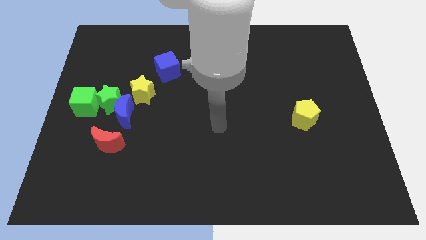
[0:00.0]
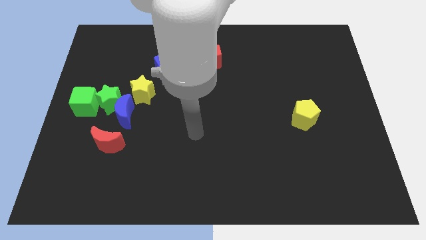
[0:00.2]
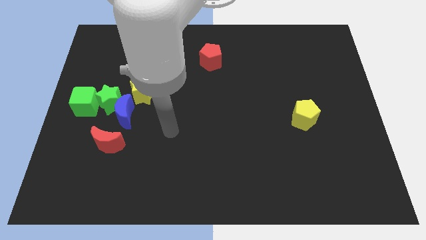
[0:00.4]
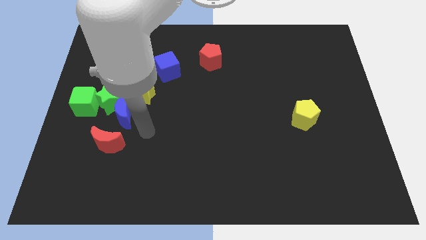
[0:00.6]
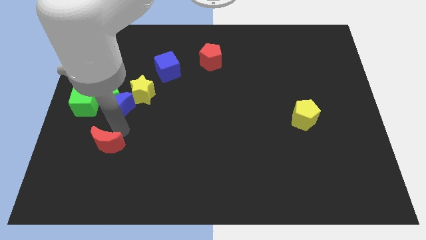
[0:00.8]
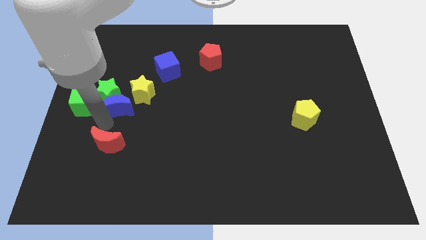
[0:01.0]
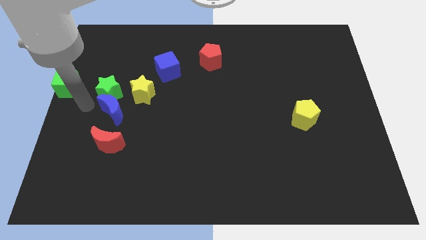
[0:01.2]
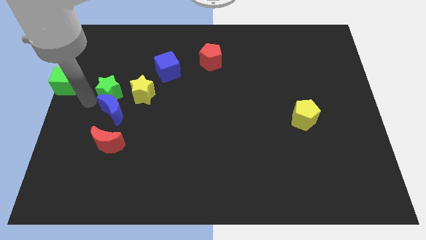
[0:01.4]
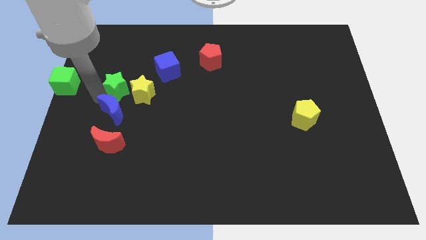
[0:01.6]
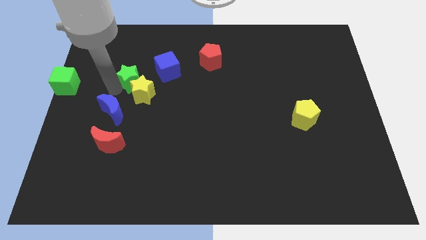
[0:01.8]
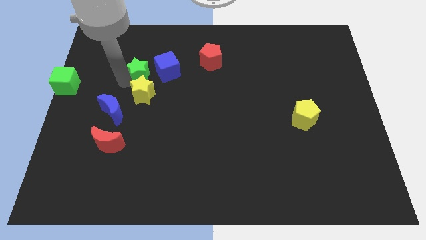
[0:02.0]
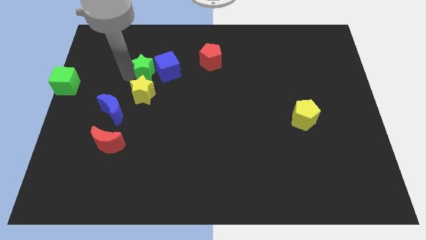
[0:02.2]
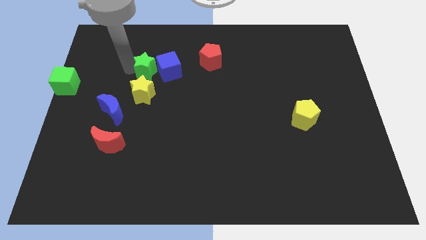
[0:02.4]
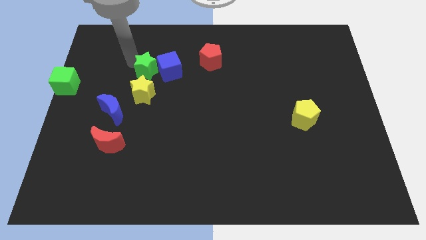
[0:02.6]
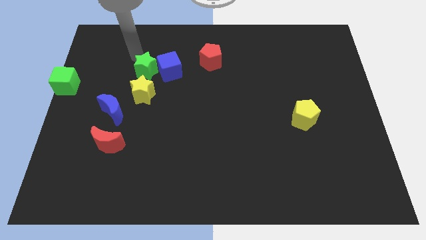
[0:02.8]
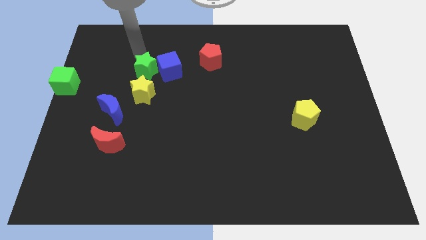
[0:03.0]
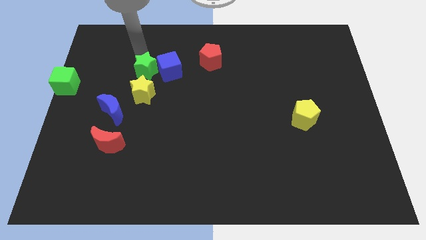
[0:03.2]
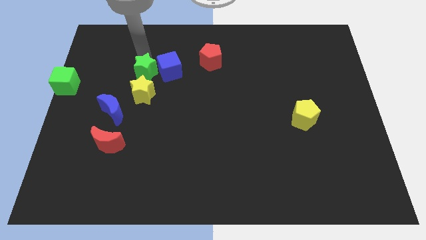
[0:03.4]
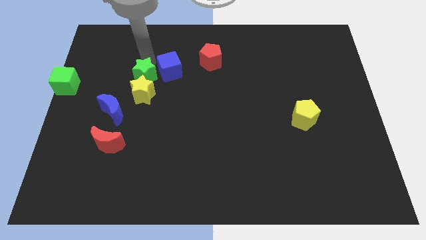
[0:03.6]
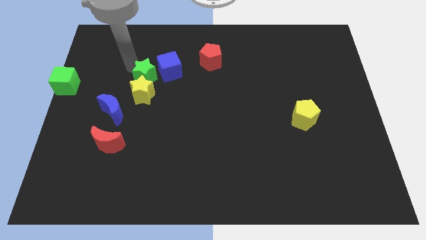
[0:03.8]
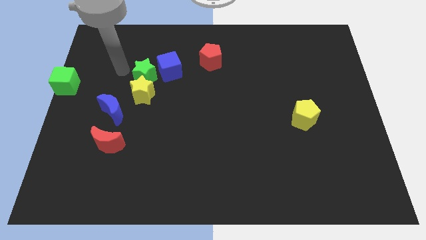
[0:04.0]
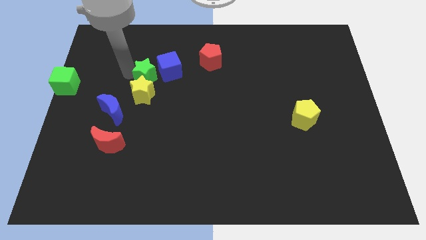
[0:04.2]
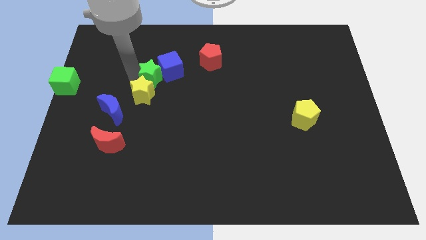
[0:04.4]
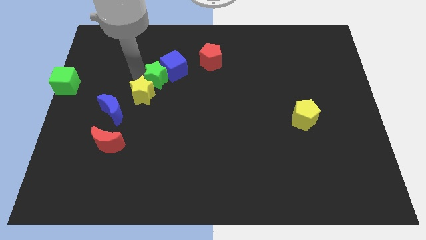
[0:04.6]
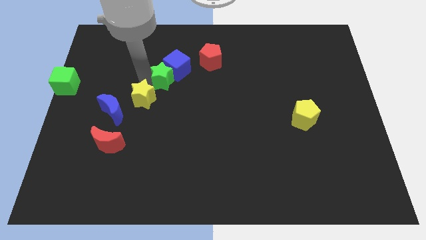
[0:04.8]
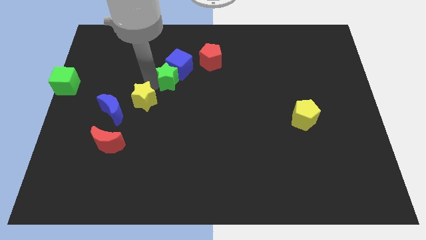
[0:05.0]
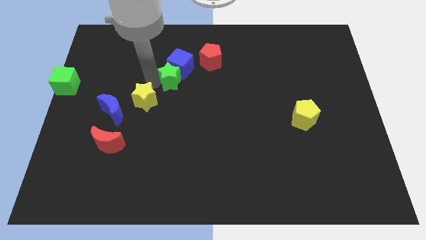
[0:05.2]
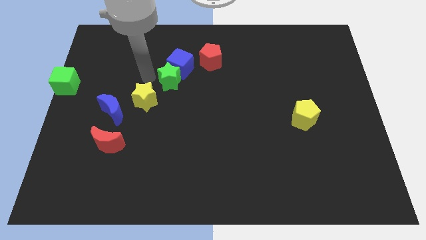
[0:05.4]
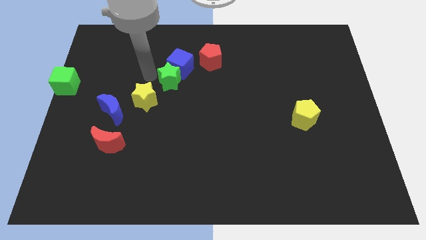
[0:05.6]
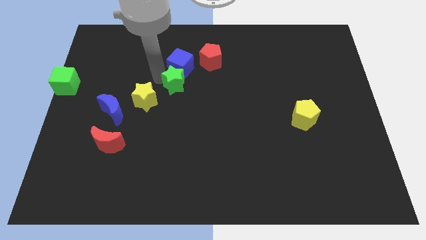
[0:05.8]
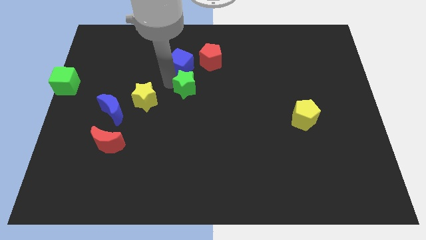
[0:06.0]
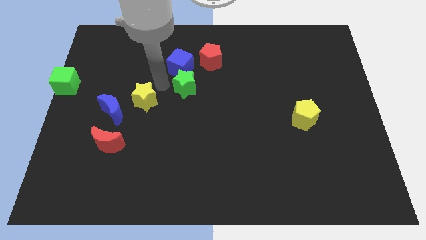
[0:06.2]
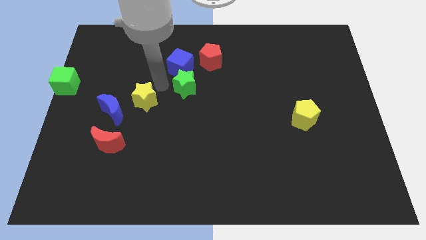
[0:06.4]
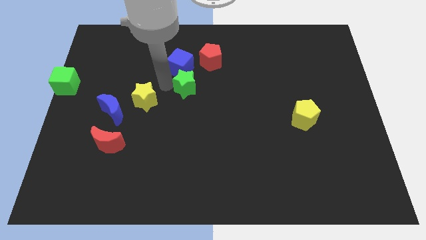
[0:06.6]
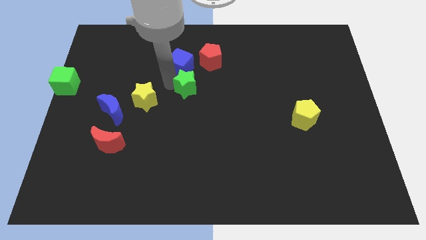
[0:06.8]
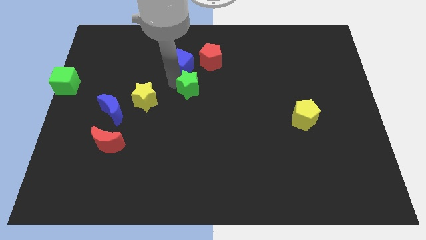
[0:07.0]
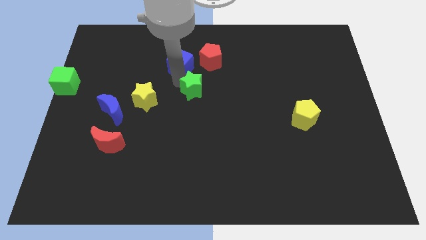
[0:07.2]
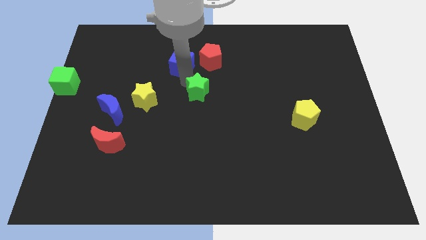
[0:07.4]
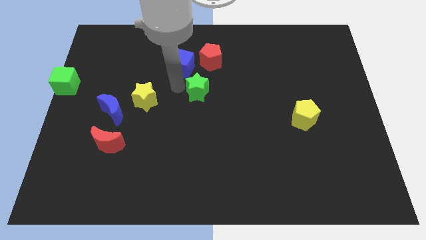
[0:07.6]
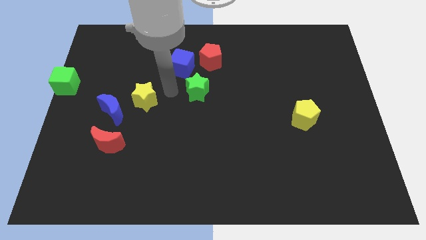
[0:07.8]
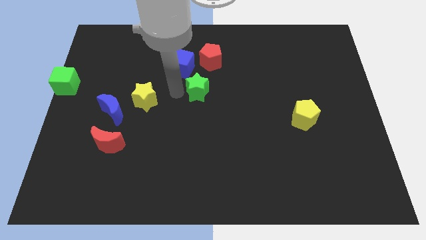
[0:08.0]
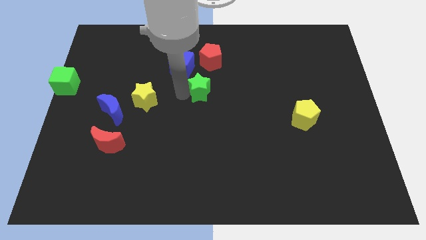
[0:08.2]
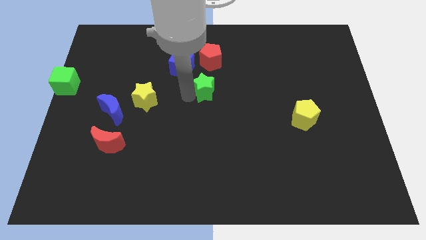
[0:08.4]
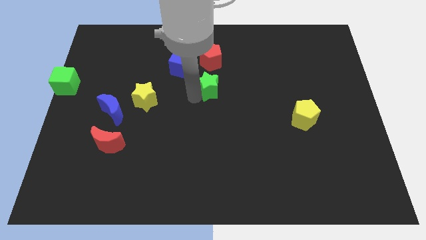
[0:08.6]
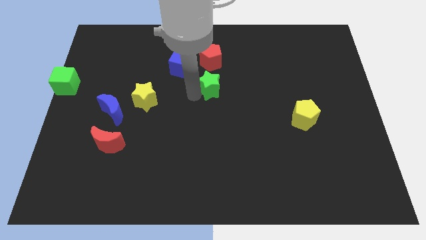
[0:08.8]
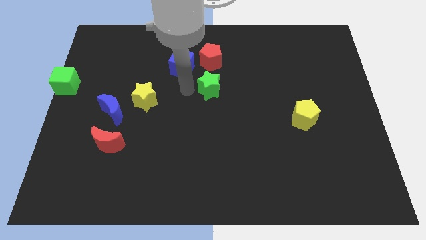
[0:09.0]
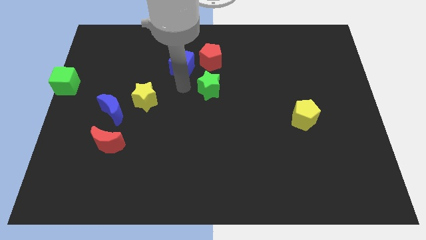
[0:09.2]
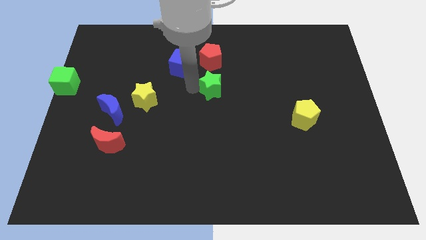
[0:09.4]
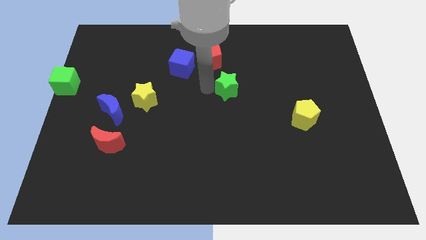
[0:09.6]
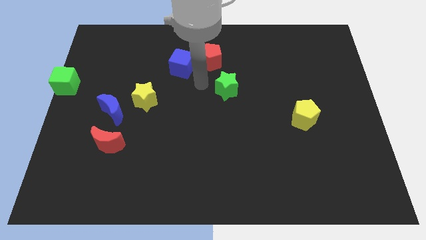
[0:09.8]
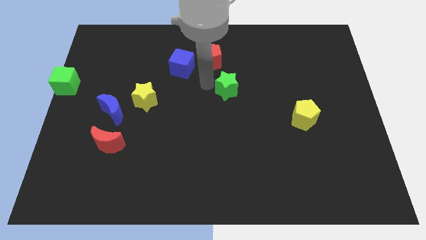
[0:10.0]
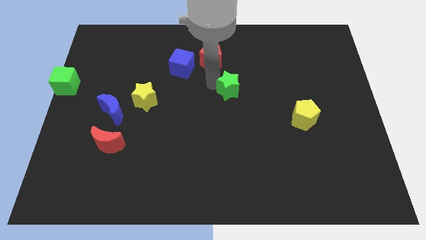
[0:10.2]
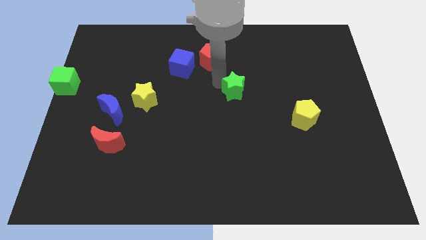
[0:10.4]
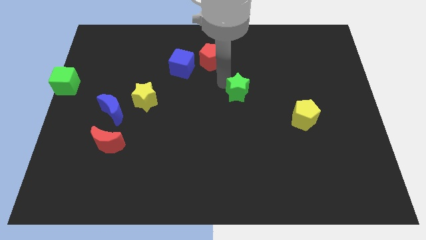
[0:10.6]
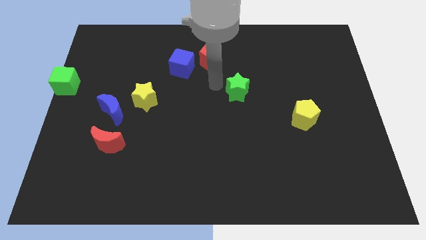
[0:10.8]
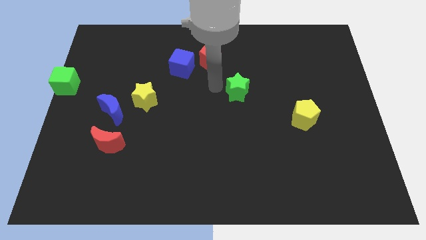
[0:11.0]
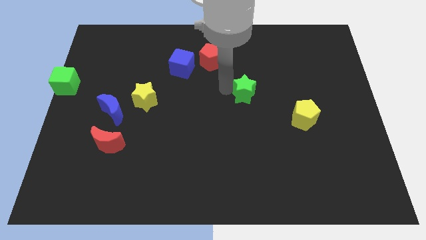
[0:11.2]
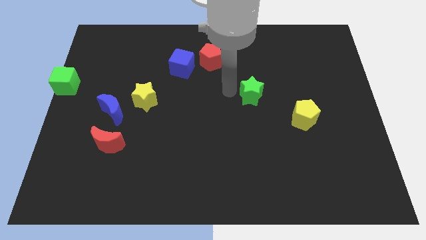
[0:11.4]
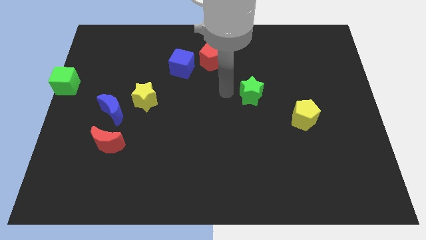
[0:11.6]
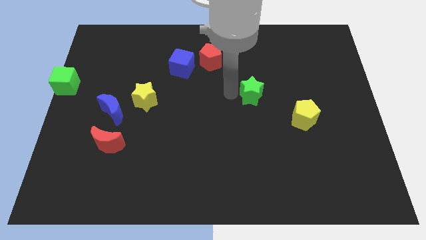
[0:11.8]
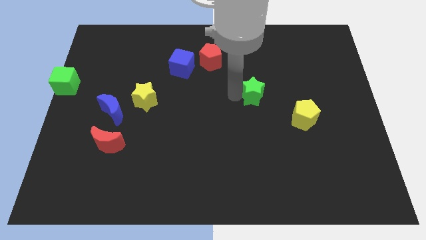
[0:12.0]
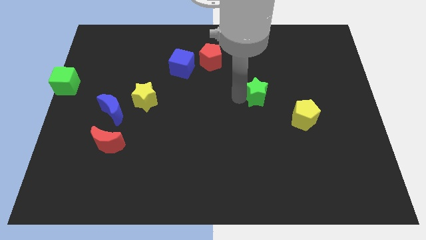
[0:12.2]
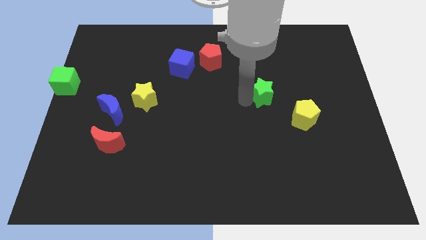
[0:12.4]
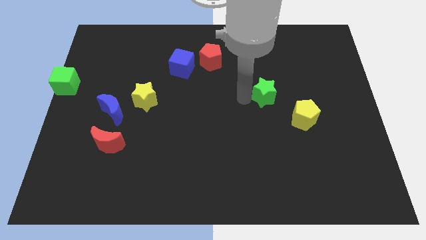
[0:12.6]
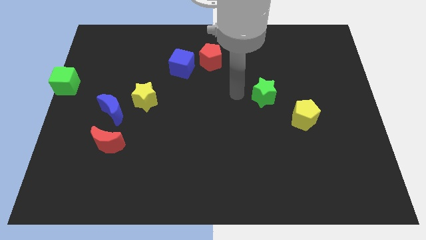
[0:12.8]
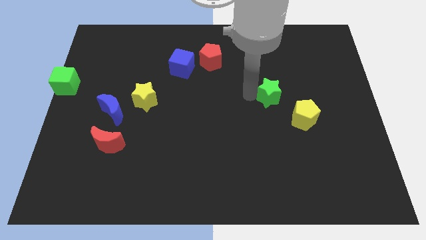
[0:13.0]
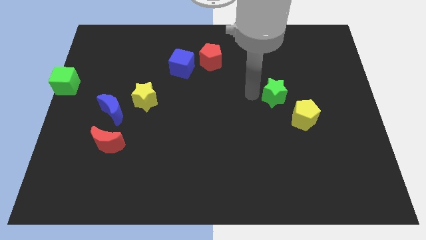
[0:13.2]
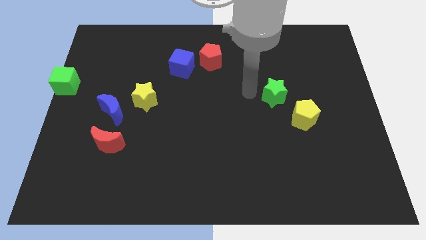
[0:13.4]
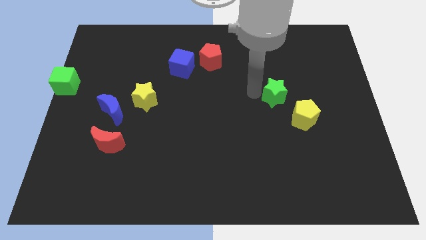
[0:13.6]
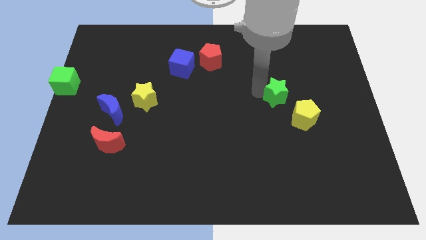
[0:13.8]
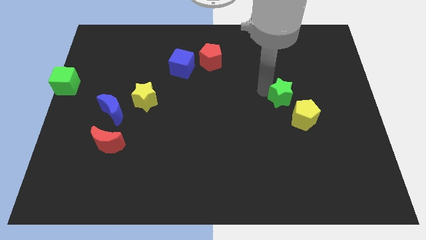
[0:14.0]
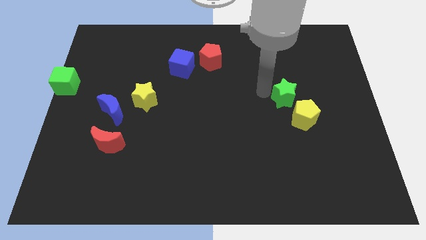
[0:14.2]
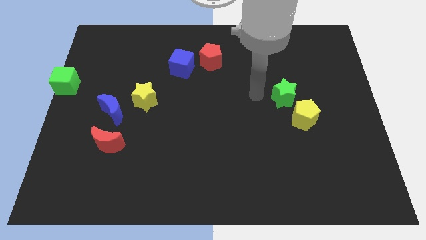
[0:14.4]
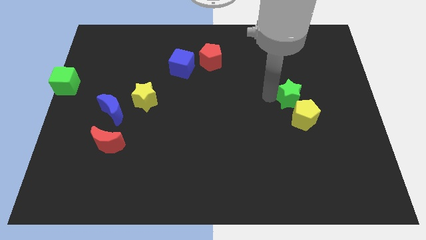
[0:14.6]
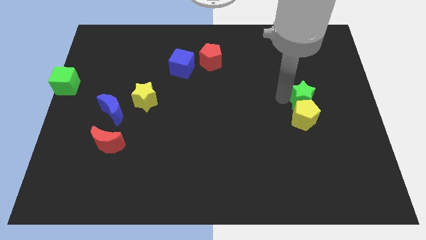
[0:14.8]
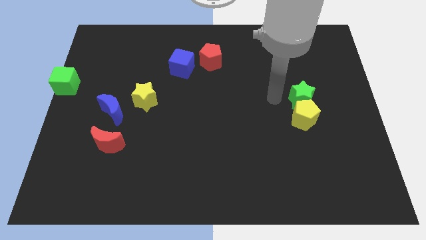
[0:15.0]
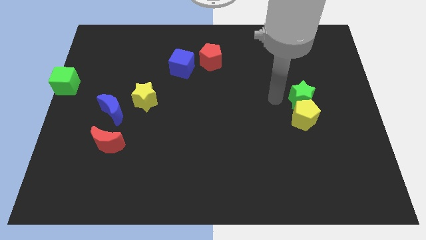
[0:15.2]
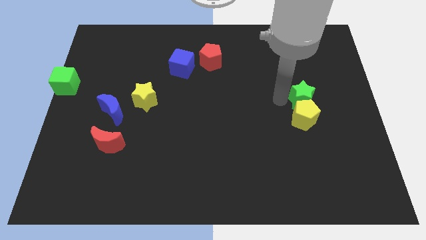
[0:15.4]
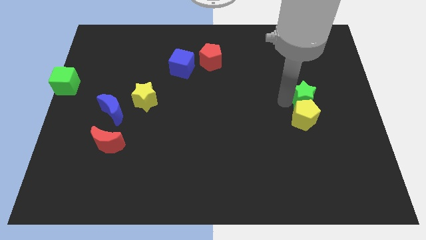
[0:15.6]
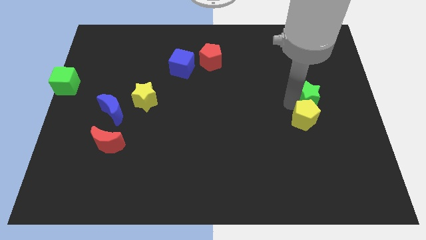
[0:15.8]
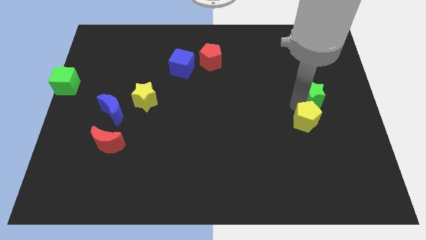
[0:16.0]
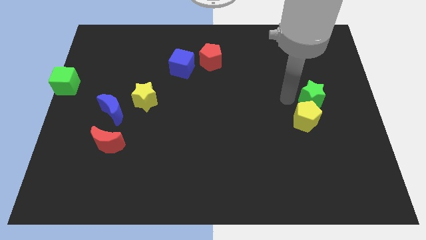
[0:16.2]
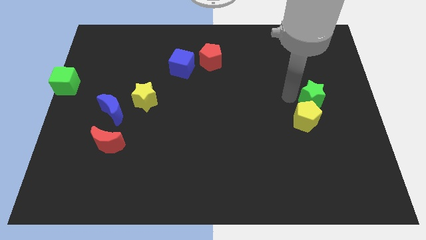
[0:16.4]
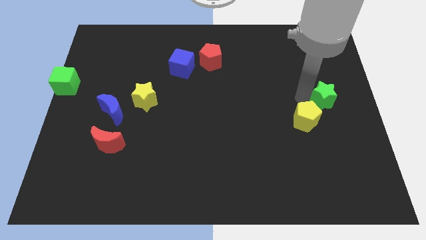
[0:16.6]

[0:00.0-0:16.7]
push the green star to the right side
